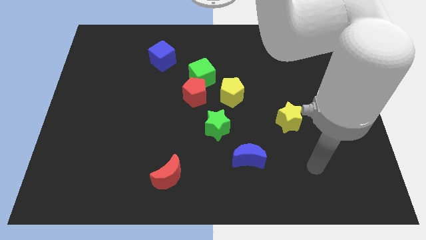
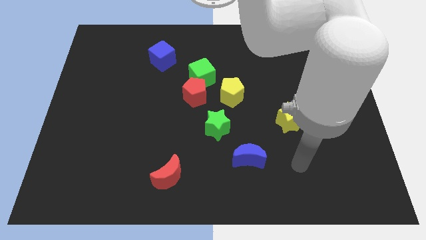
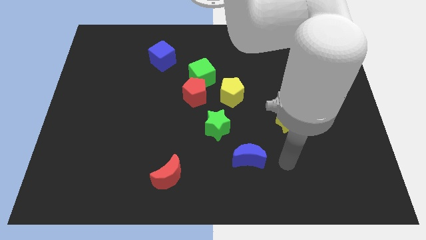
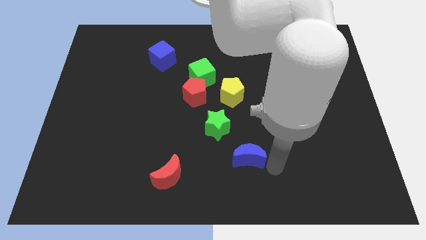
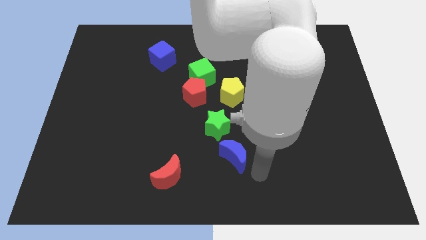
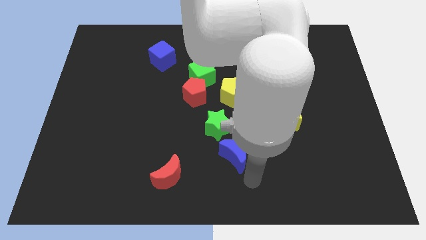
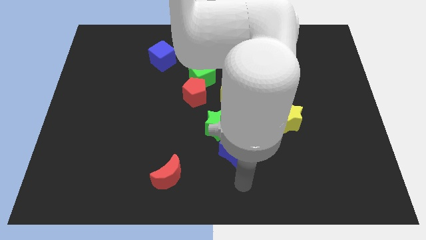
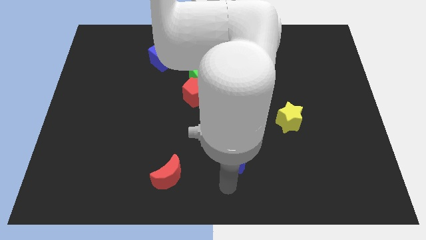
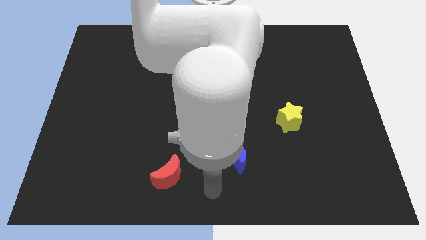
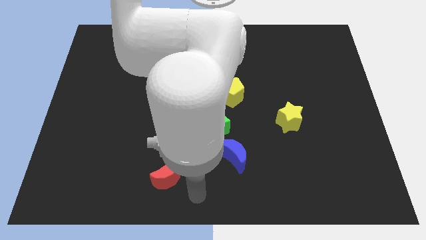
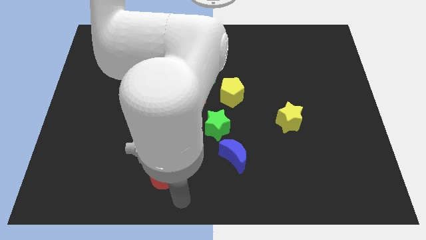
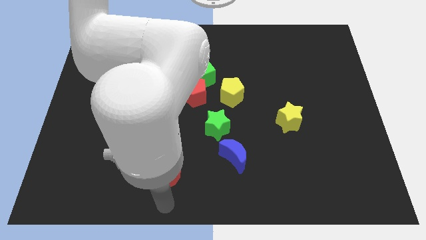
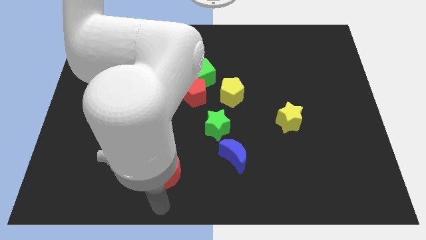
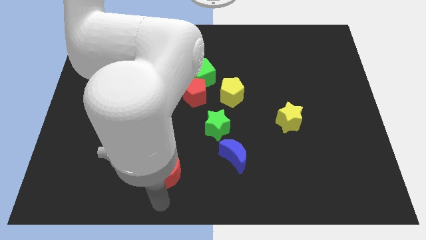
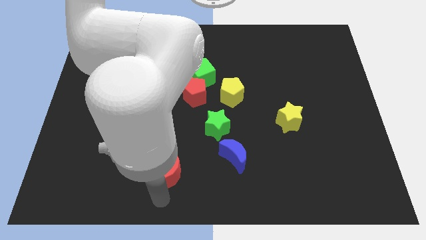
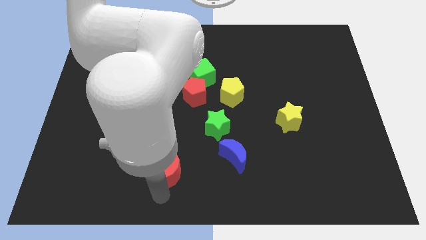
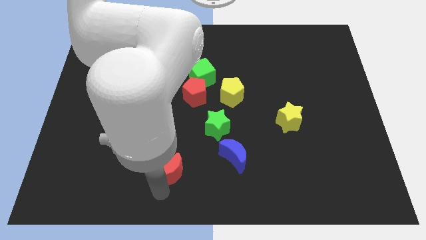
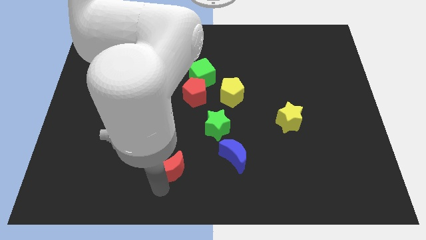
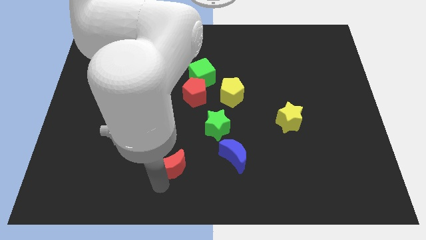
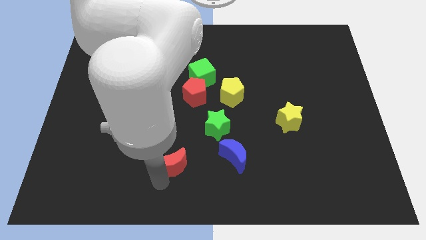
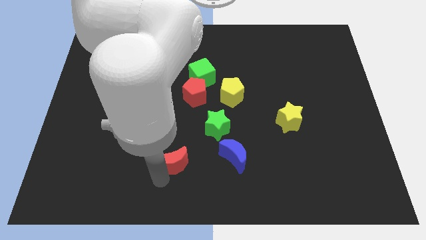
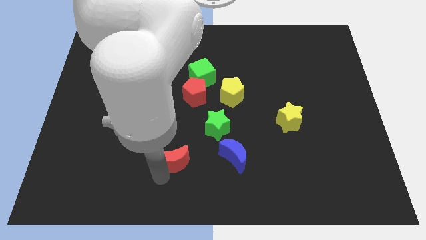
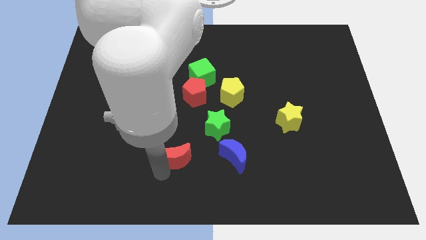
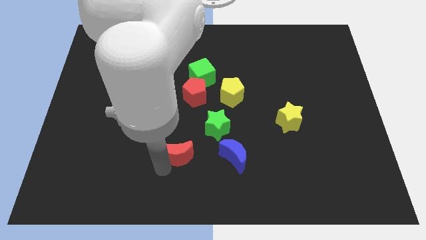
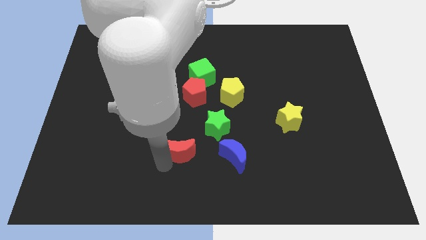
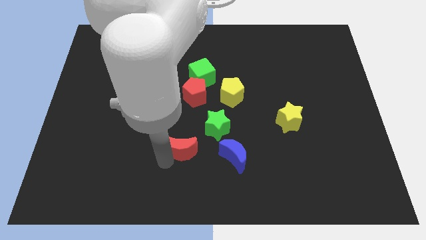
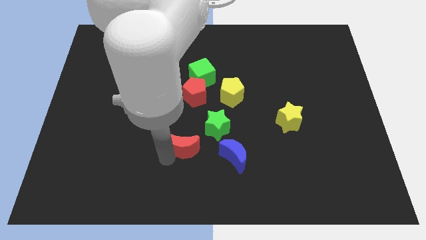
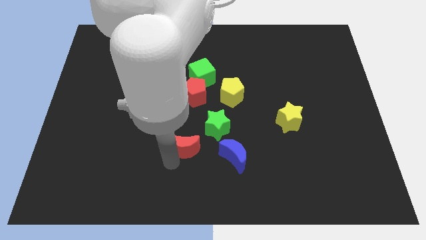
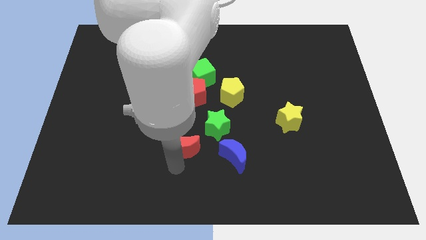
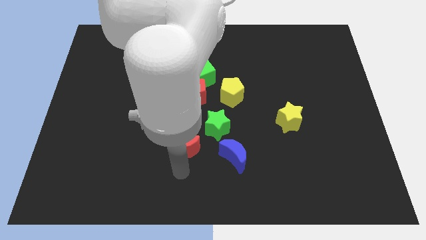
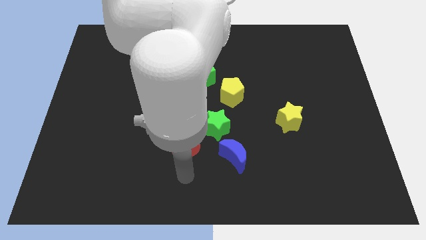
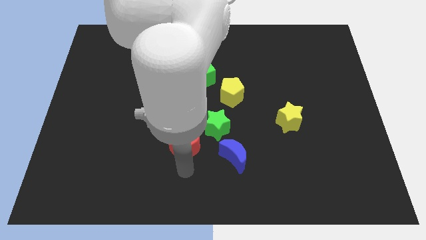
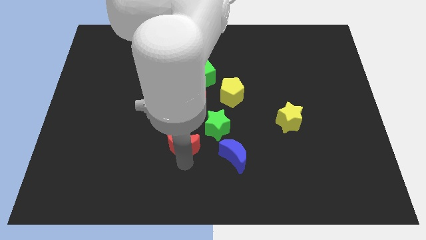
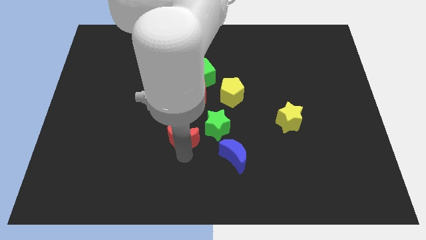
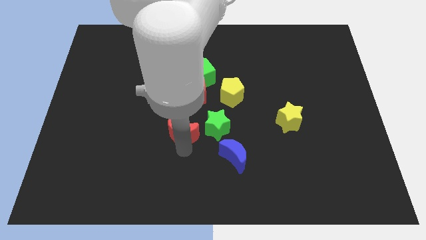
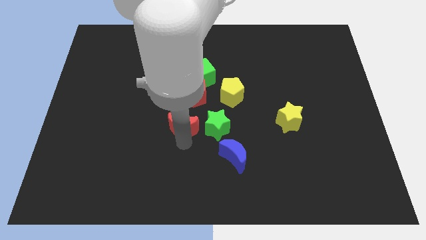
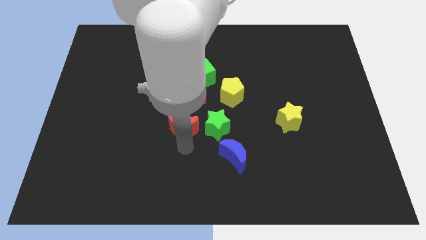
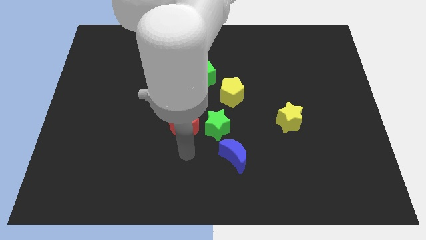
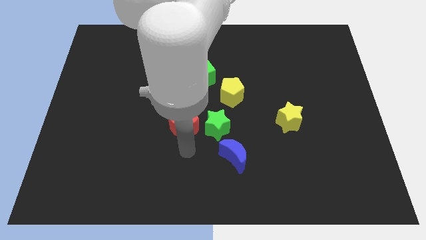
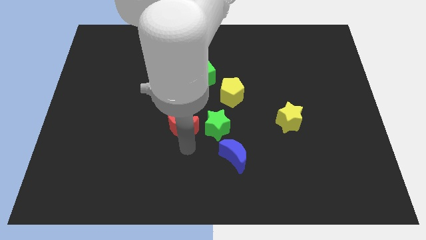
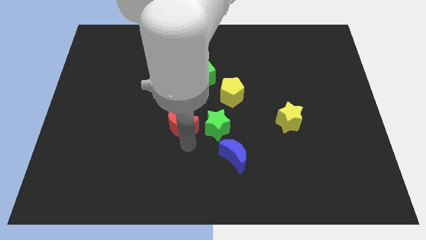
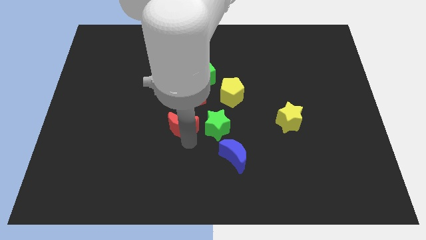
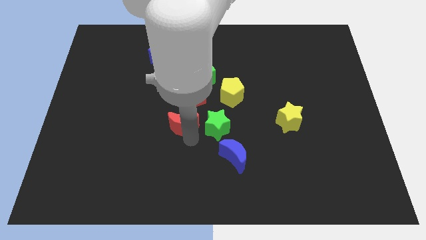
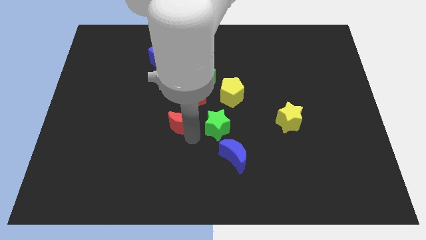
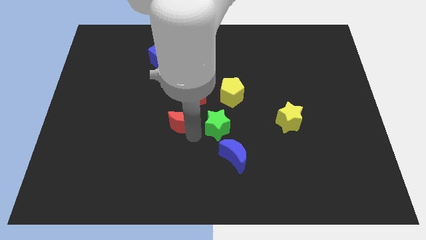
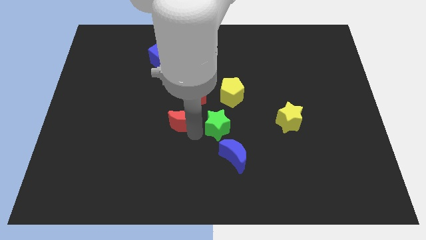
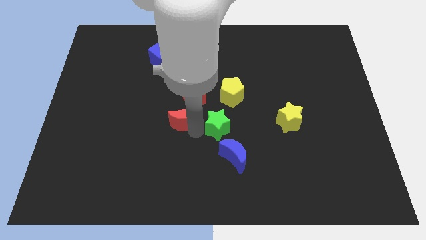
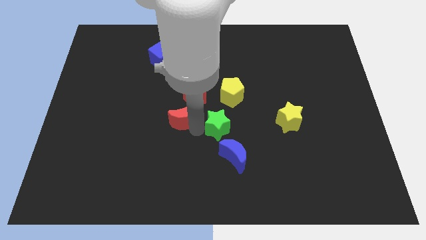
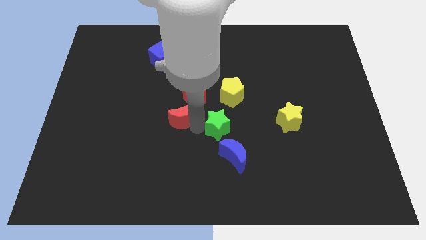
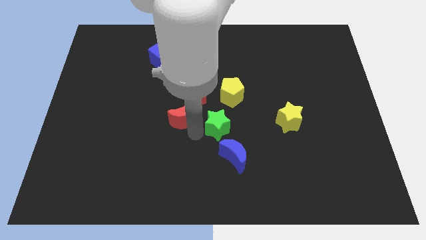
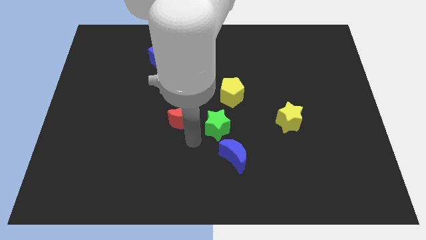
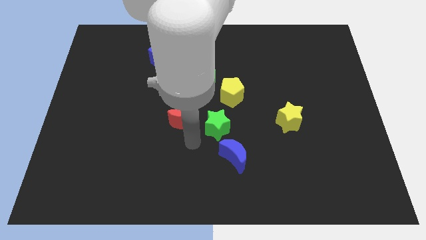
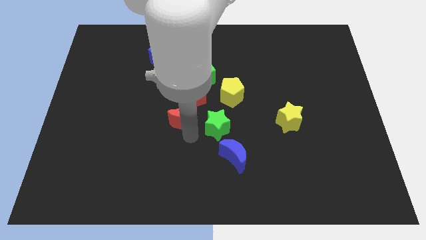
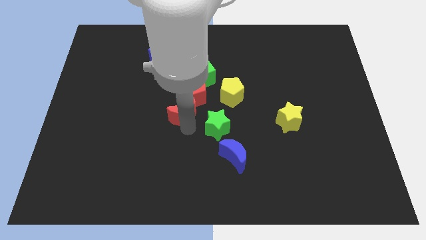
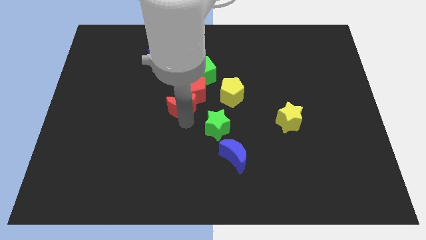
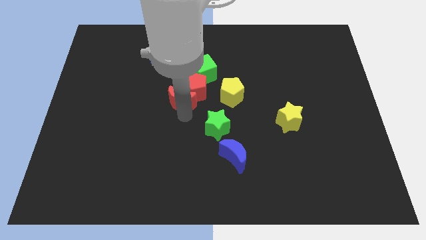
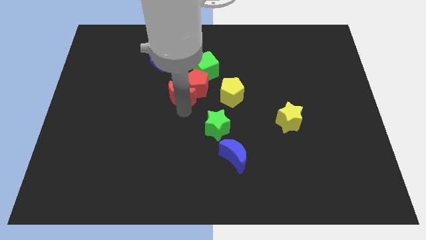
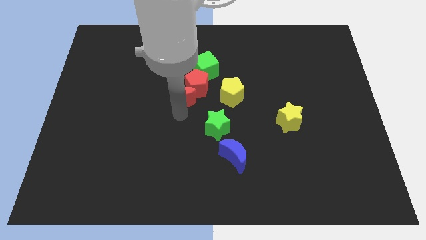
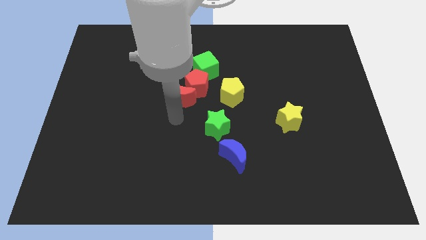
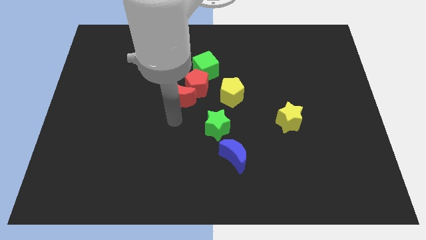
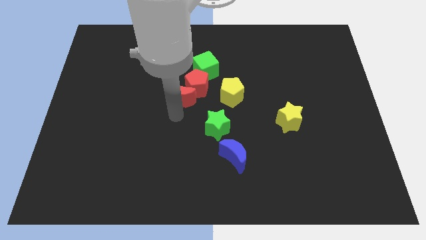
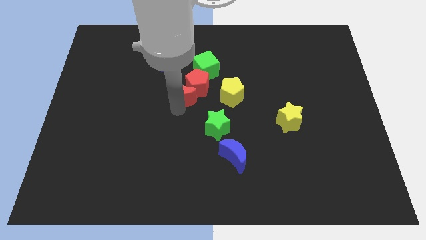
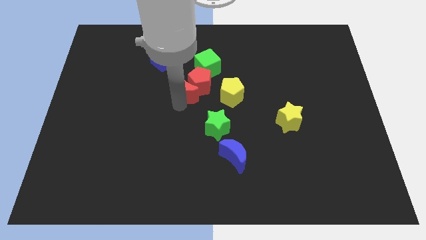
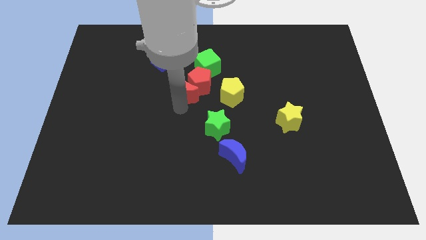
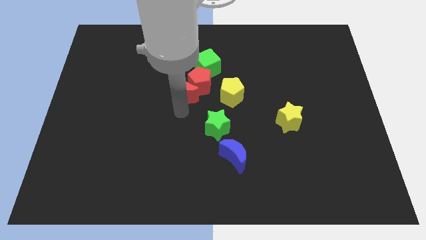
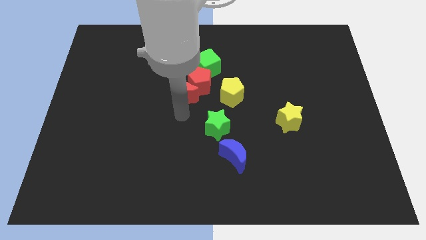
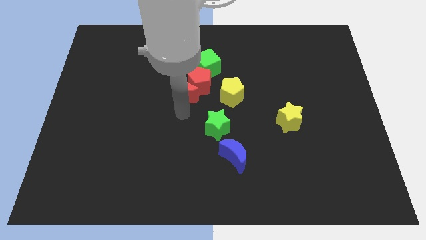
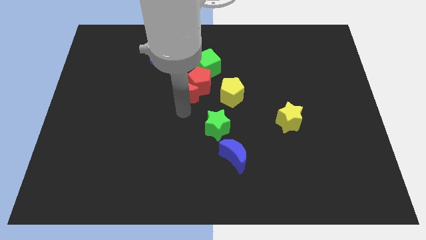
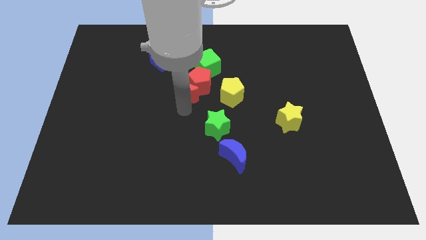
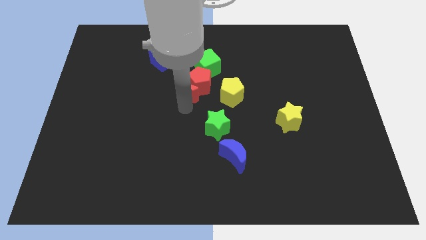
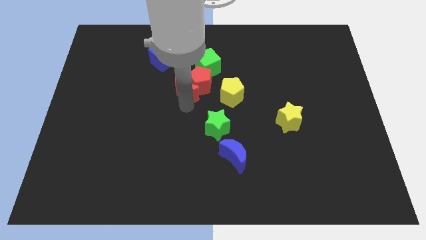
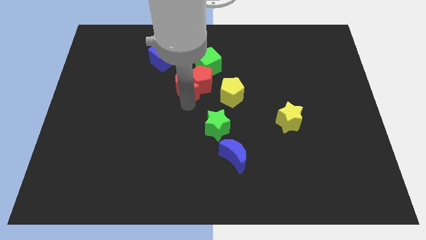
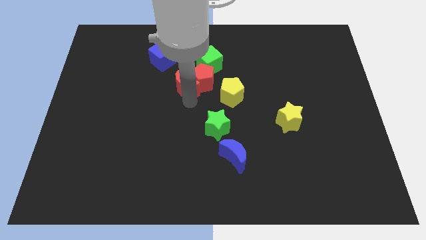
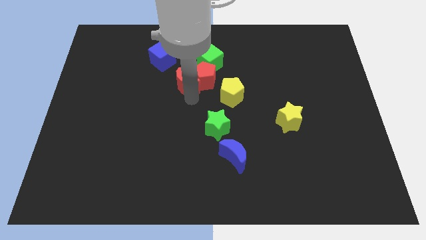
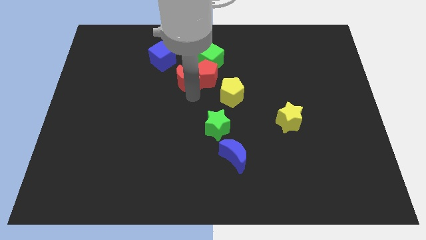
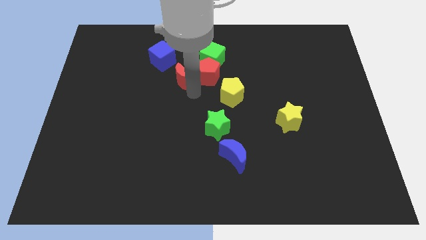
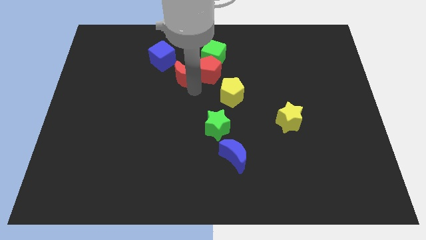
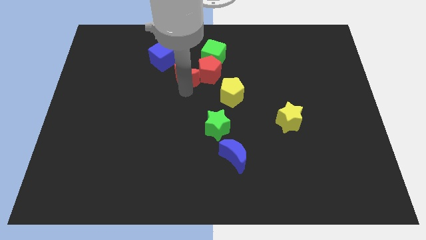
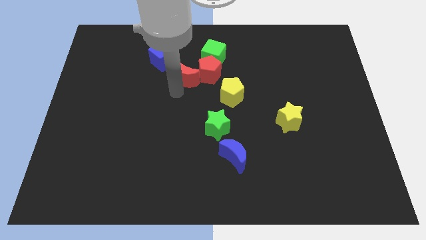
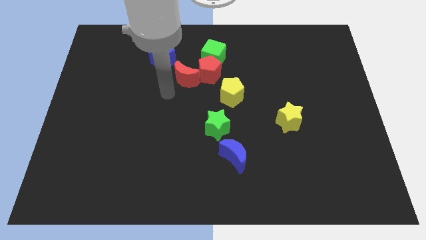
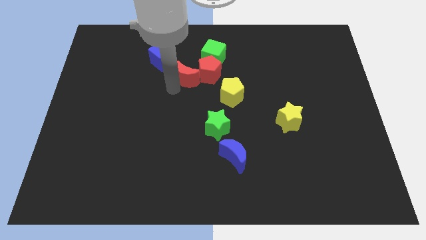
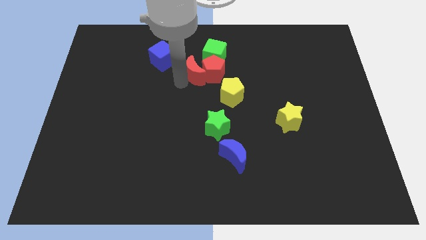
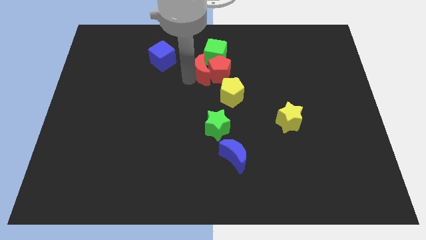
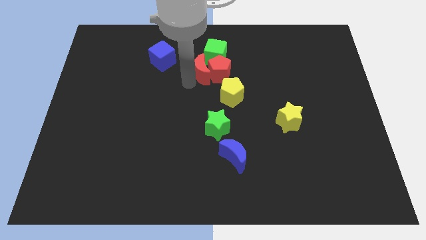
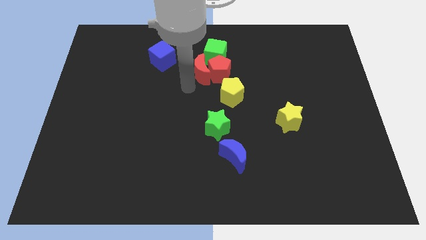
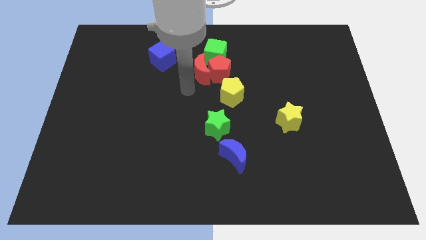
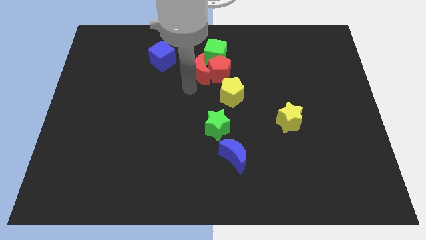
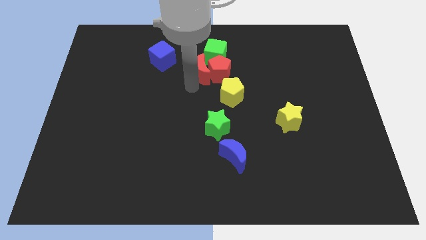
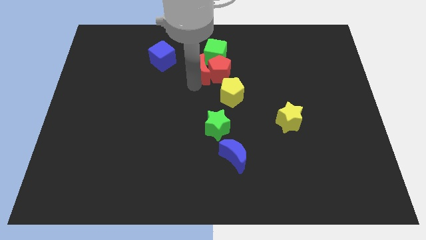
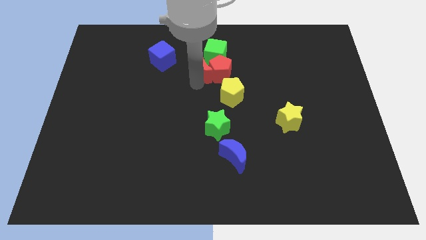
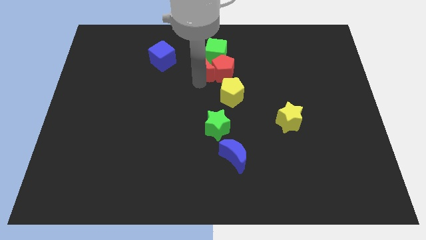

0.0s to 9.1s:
move the red moon next to the green cube
